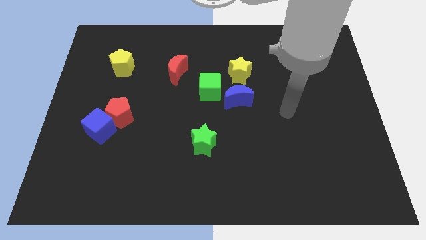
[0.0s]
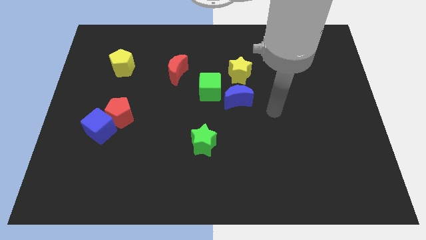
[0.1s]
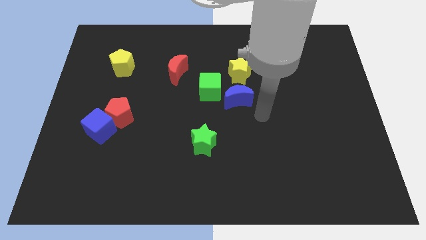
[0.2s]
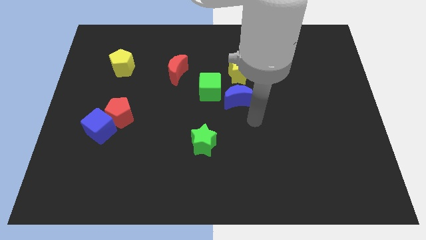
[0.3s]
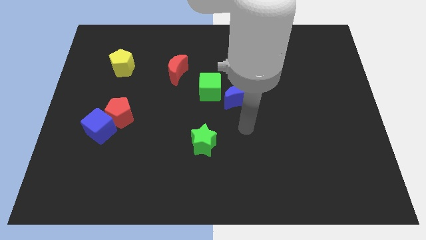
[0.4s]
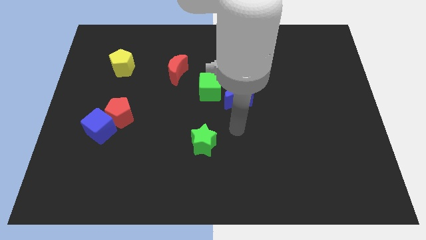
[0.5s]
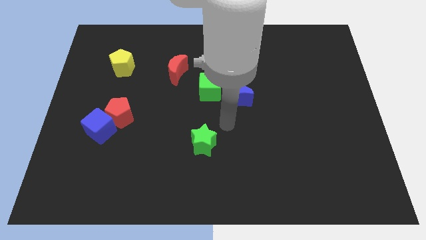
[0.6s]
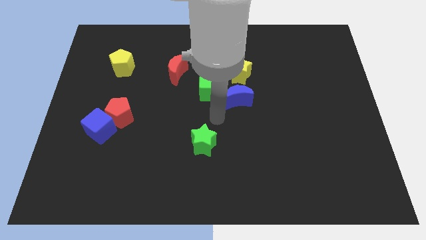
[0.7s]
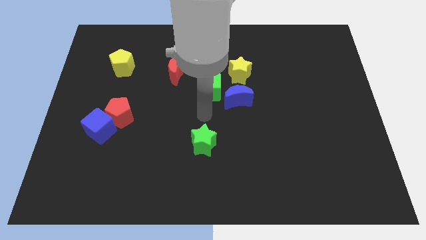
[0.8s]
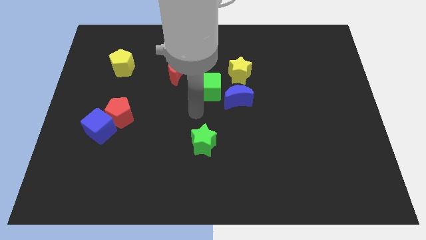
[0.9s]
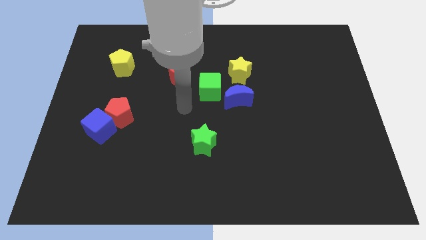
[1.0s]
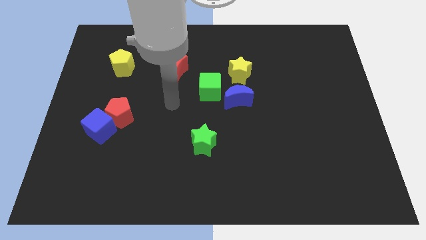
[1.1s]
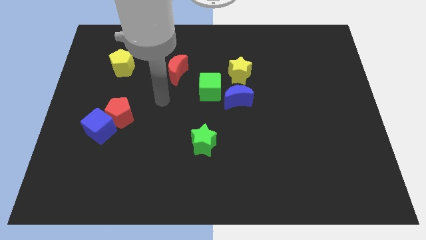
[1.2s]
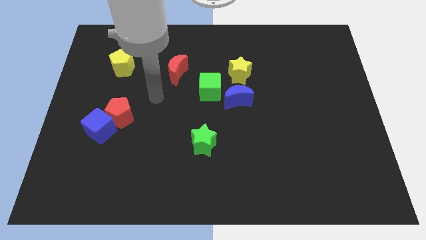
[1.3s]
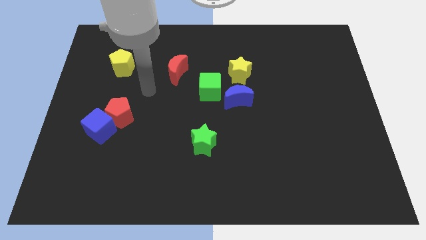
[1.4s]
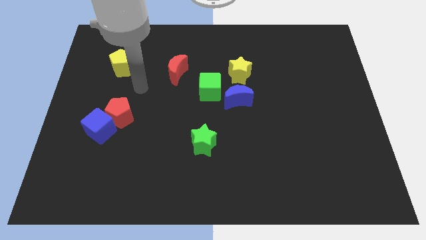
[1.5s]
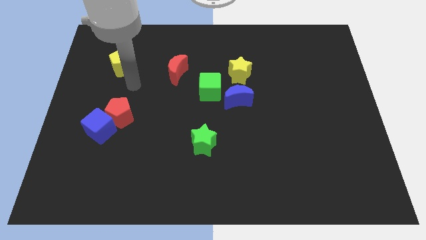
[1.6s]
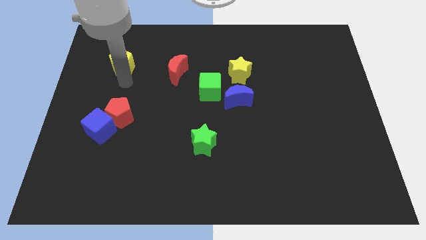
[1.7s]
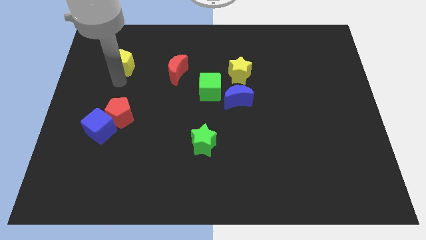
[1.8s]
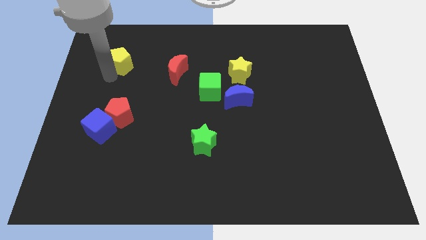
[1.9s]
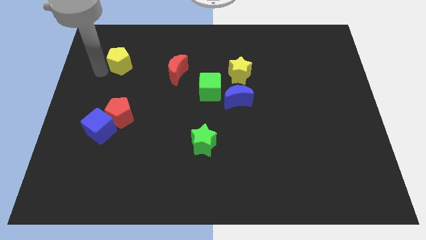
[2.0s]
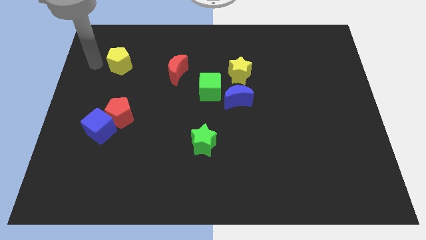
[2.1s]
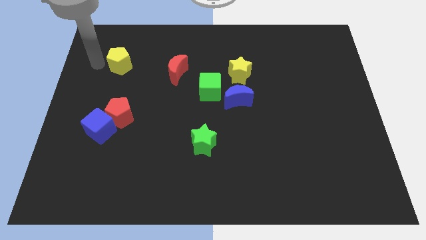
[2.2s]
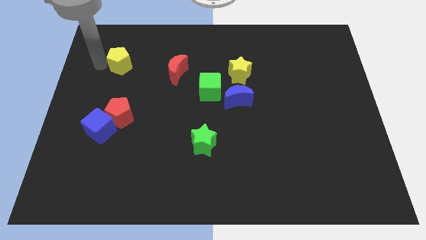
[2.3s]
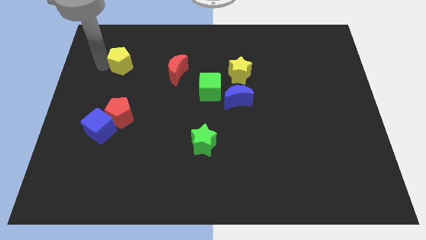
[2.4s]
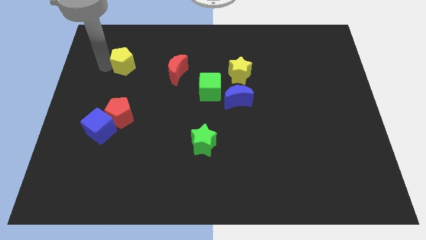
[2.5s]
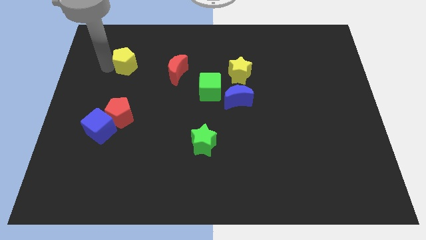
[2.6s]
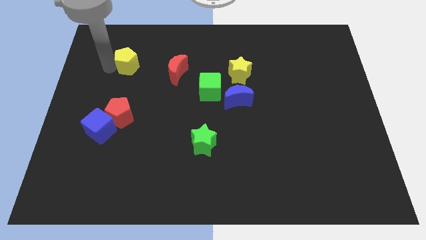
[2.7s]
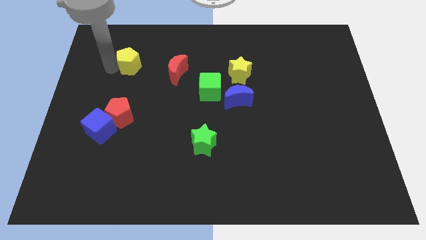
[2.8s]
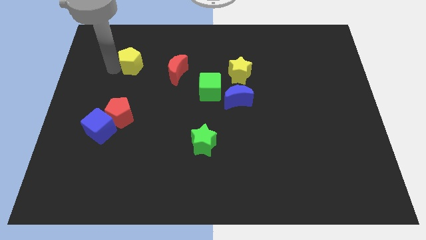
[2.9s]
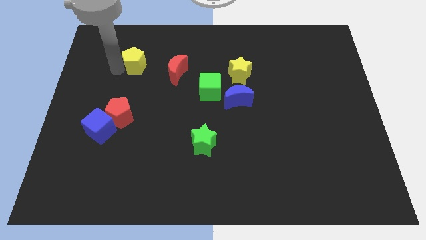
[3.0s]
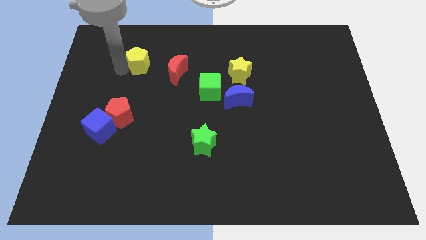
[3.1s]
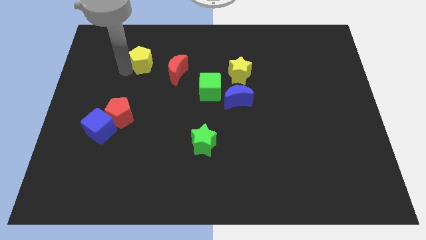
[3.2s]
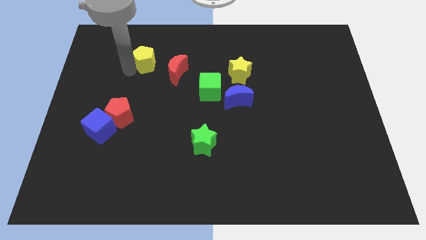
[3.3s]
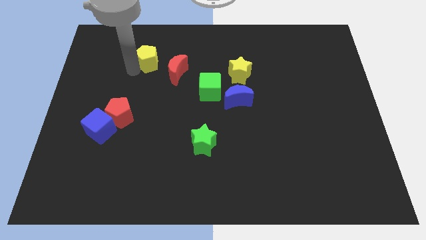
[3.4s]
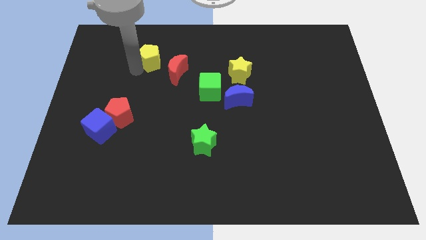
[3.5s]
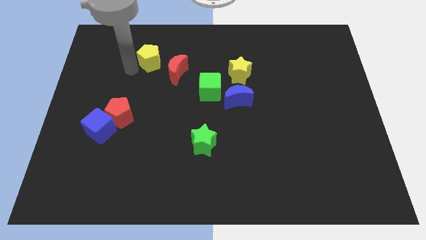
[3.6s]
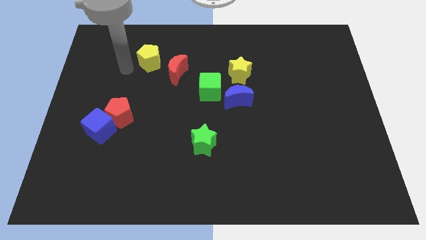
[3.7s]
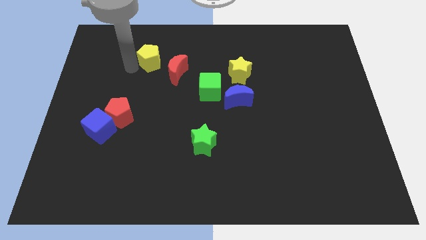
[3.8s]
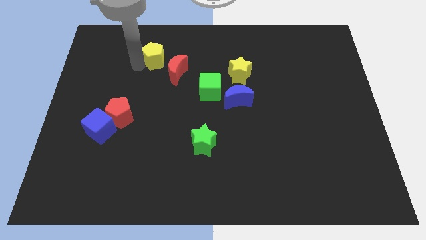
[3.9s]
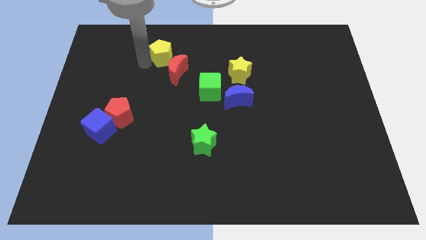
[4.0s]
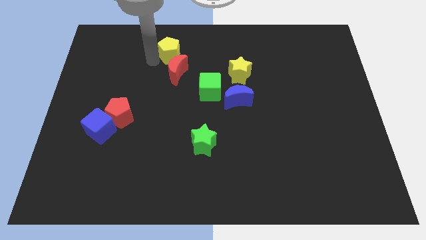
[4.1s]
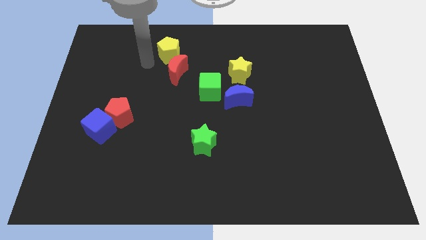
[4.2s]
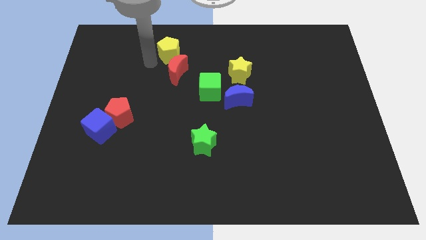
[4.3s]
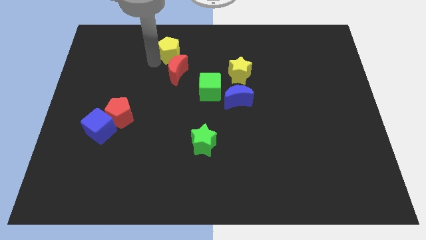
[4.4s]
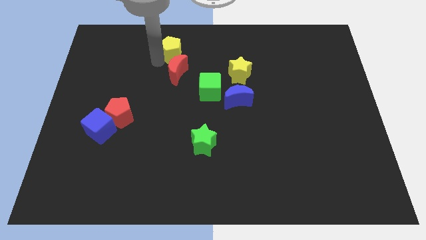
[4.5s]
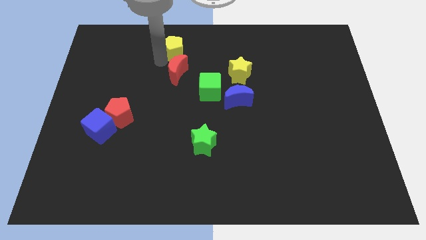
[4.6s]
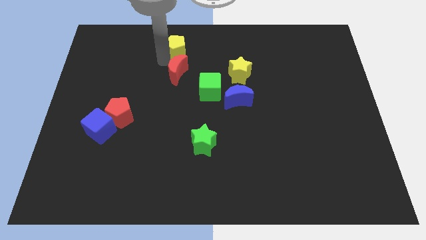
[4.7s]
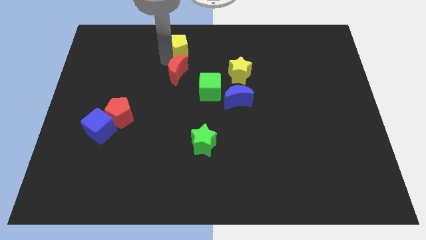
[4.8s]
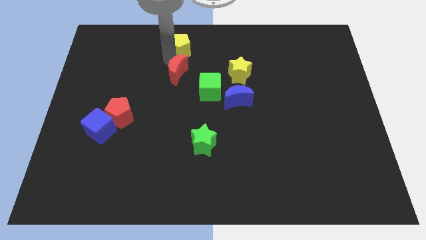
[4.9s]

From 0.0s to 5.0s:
push the yellow pentagon to the top

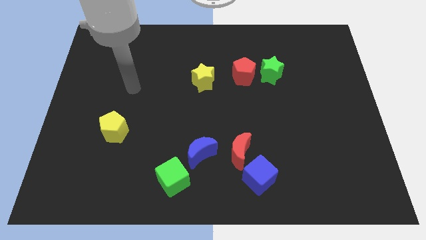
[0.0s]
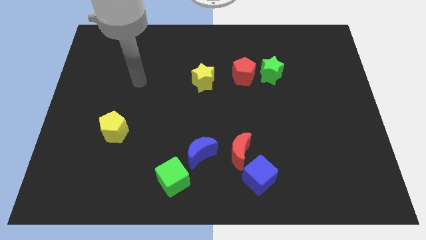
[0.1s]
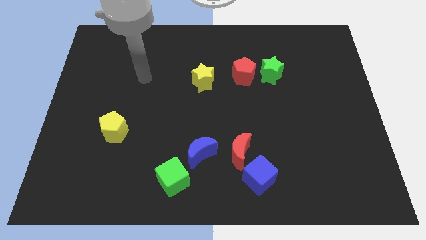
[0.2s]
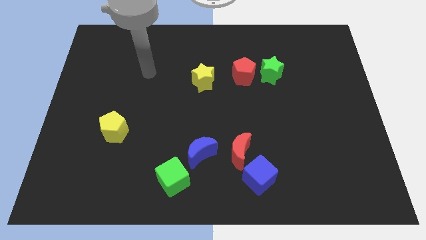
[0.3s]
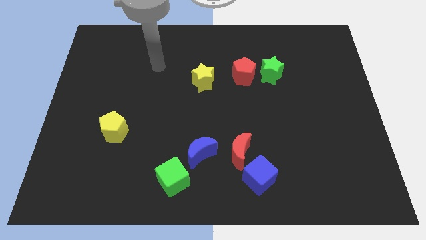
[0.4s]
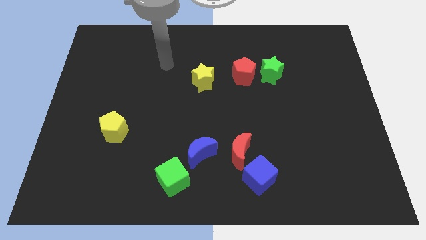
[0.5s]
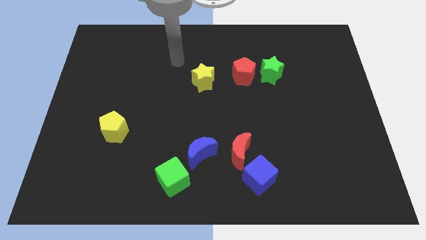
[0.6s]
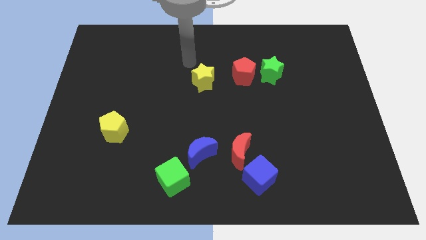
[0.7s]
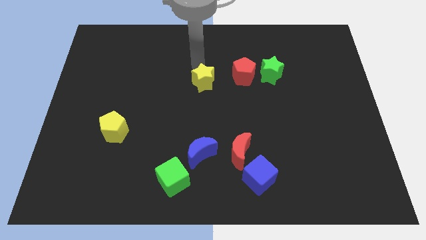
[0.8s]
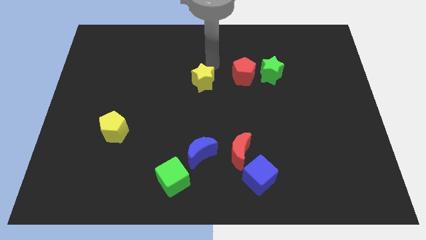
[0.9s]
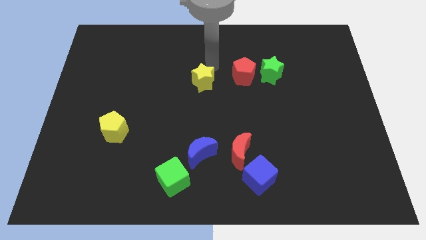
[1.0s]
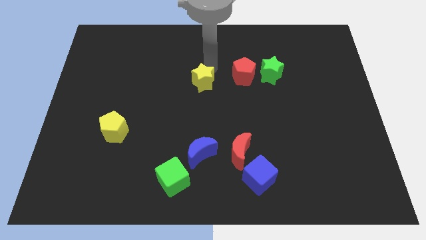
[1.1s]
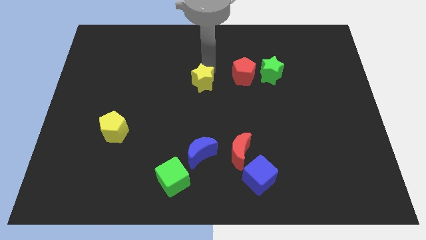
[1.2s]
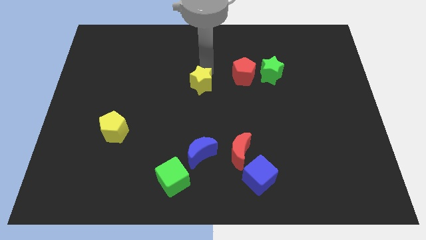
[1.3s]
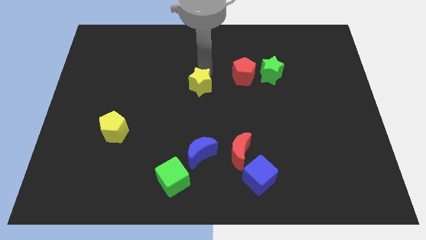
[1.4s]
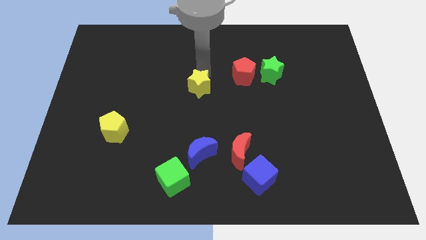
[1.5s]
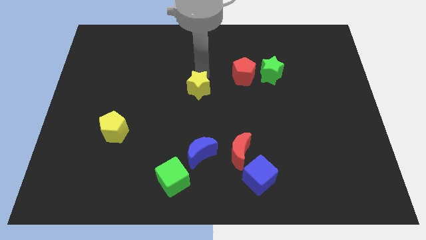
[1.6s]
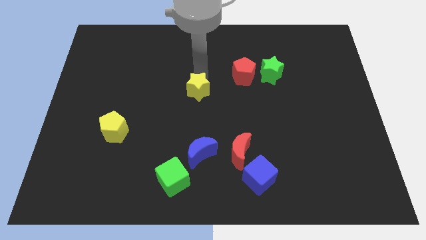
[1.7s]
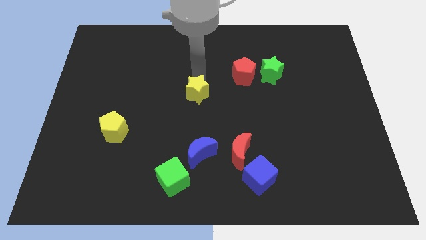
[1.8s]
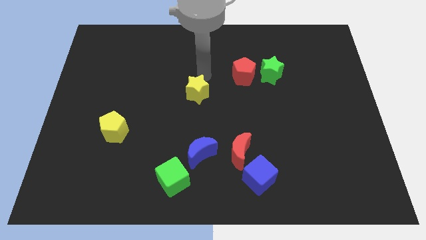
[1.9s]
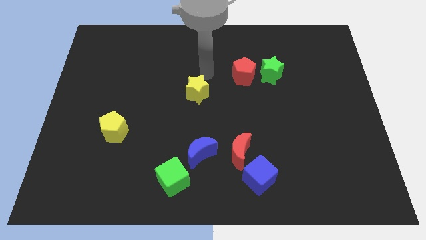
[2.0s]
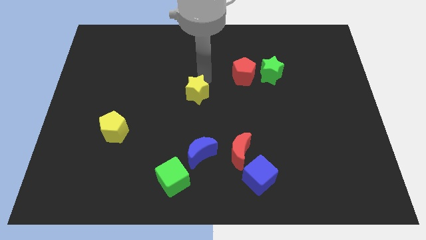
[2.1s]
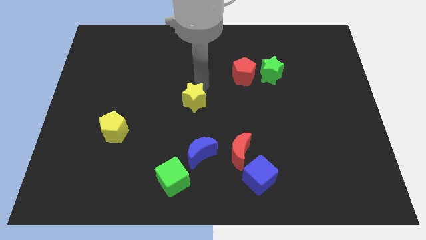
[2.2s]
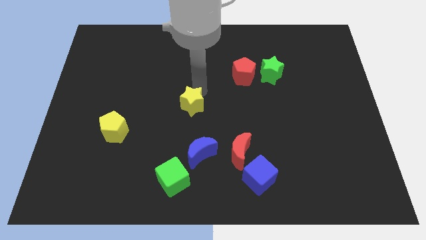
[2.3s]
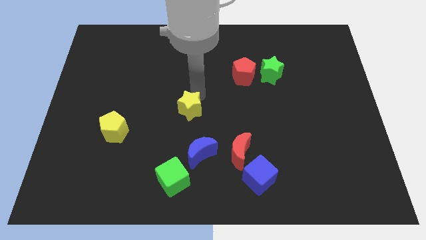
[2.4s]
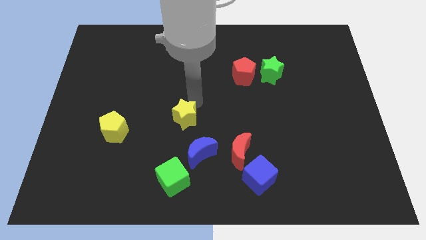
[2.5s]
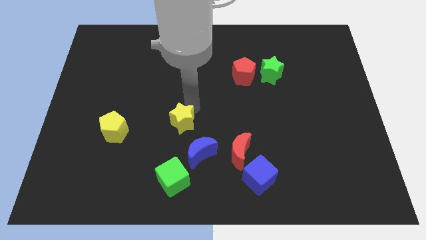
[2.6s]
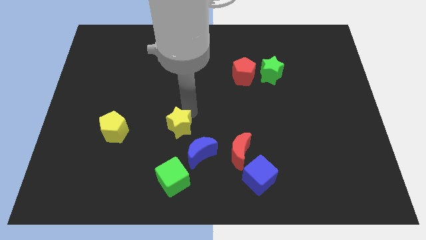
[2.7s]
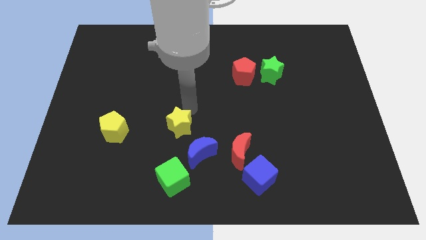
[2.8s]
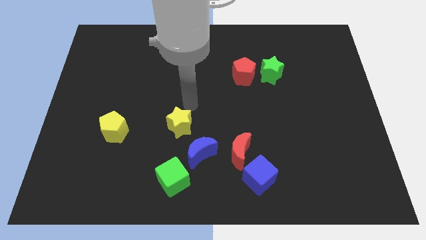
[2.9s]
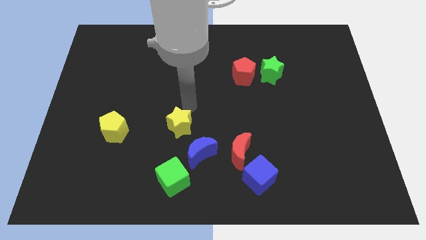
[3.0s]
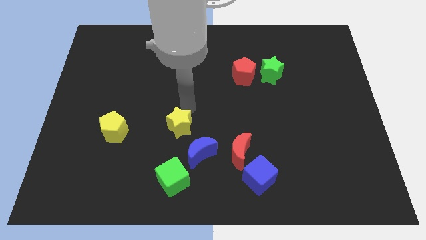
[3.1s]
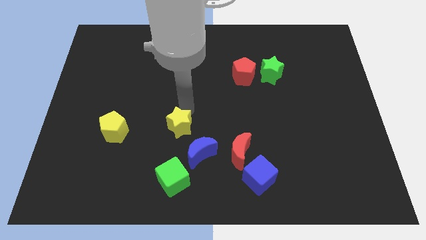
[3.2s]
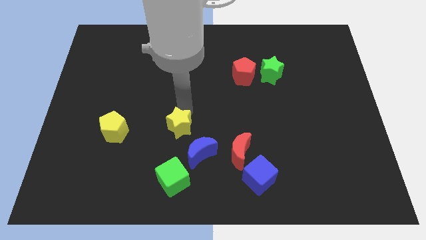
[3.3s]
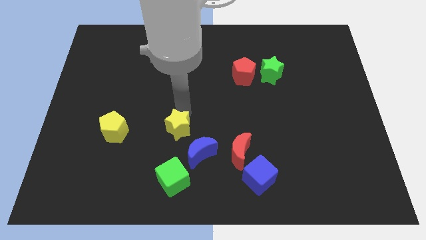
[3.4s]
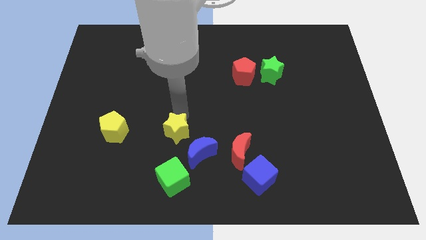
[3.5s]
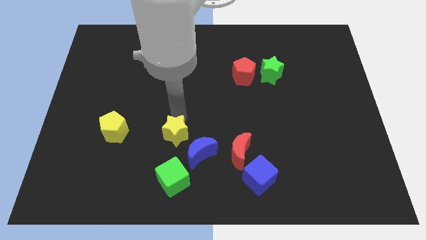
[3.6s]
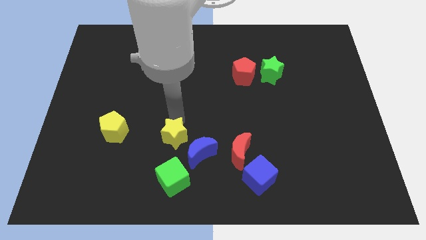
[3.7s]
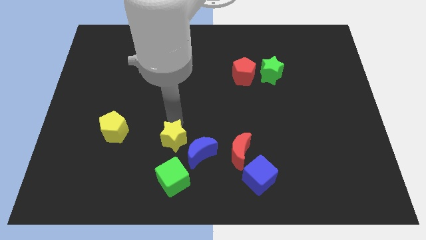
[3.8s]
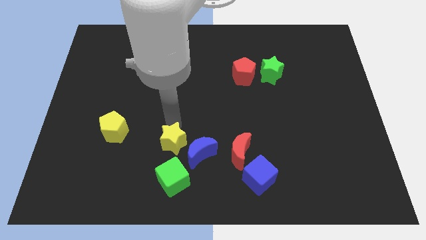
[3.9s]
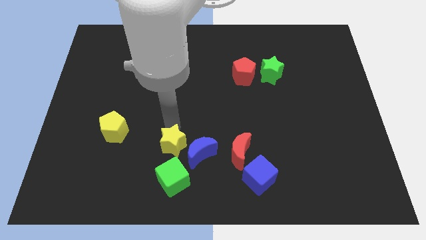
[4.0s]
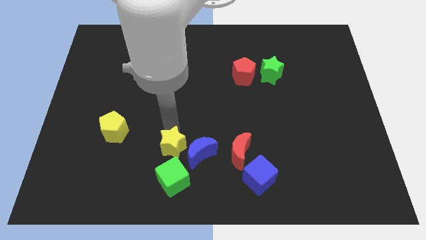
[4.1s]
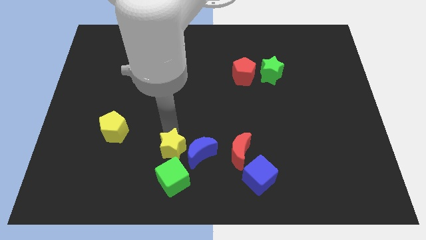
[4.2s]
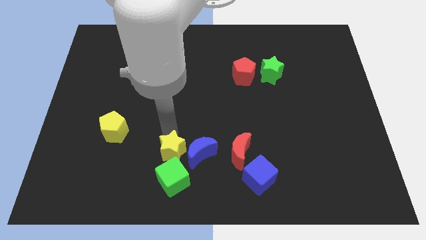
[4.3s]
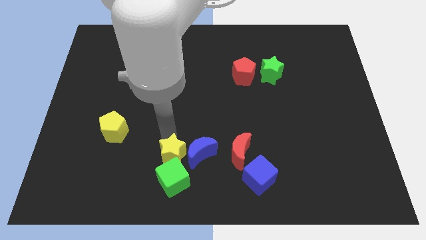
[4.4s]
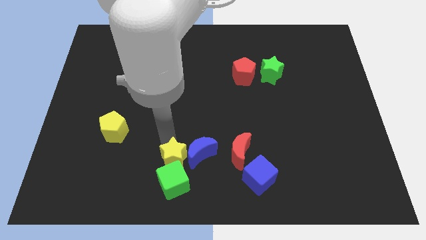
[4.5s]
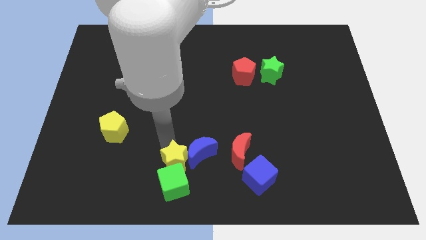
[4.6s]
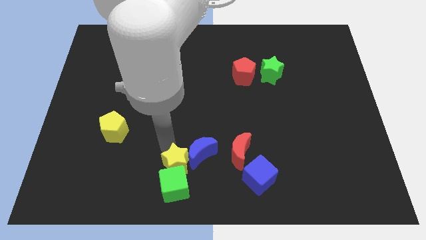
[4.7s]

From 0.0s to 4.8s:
move the yellow star to the bottom
